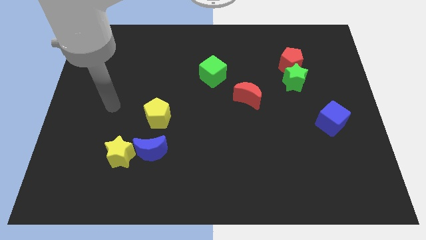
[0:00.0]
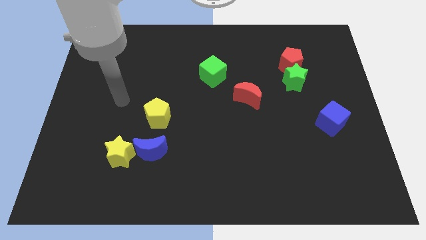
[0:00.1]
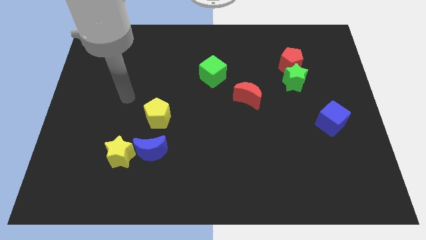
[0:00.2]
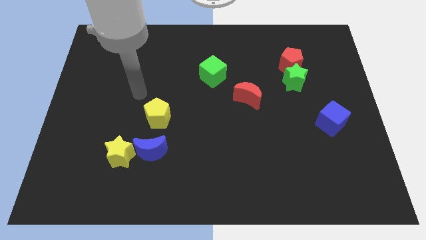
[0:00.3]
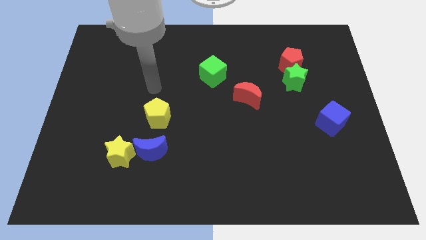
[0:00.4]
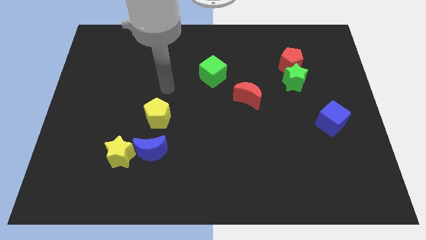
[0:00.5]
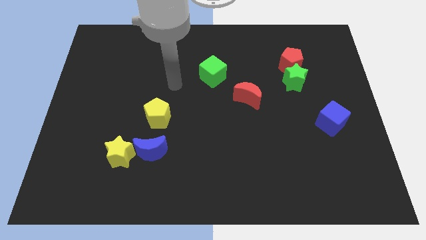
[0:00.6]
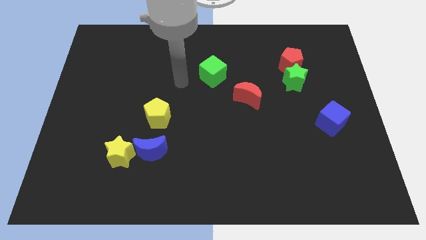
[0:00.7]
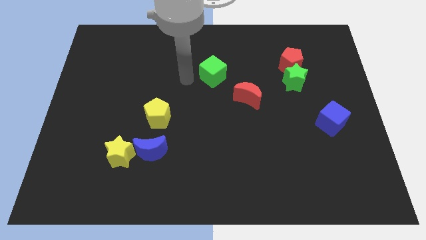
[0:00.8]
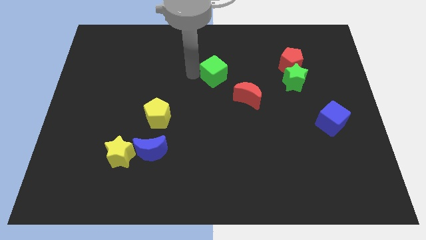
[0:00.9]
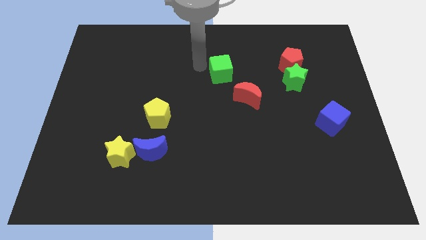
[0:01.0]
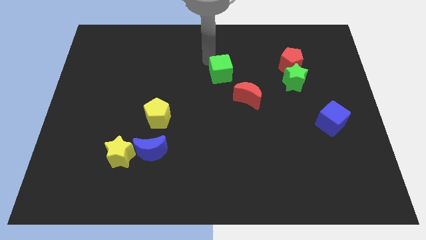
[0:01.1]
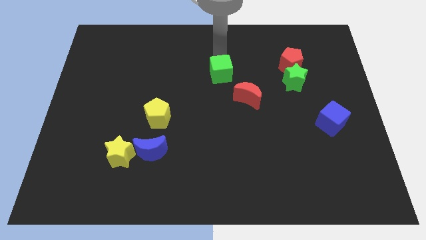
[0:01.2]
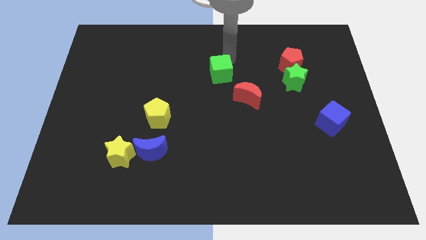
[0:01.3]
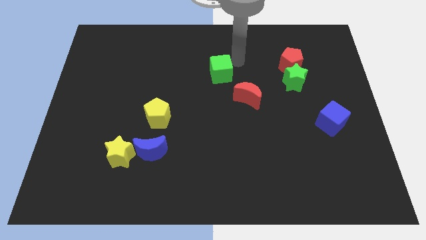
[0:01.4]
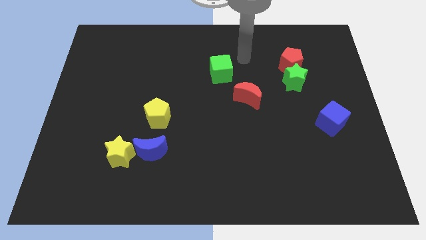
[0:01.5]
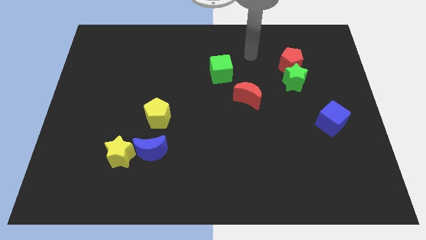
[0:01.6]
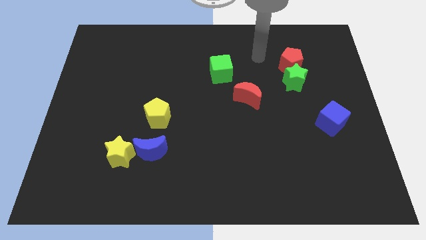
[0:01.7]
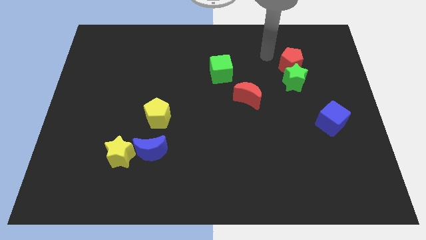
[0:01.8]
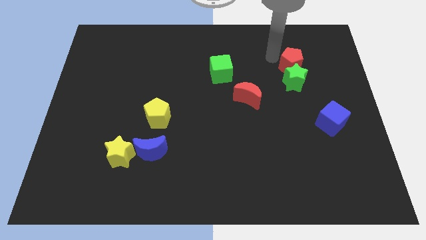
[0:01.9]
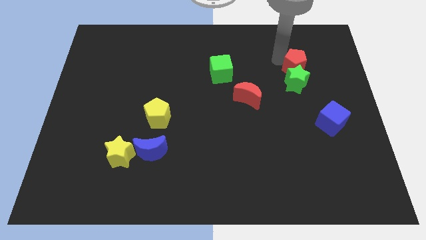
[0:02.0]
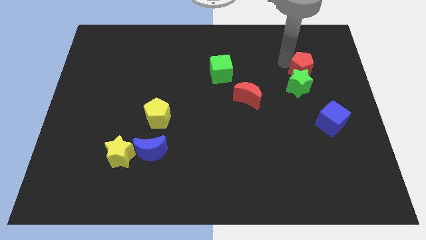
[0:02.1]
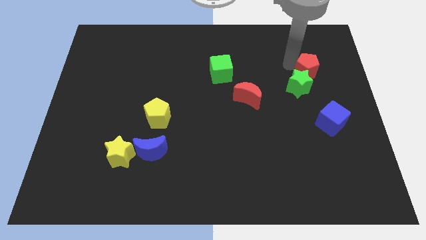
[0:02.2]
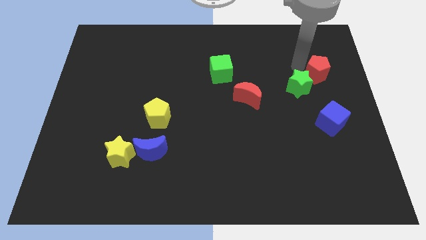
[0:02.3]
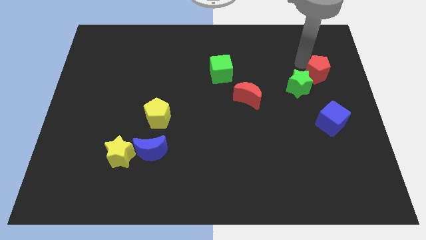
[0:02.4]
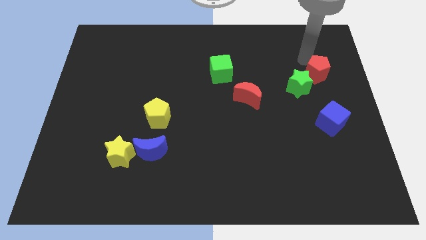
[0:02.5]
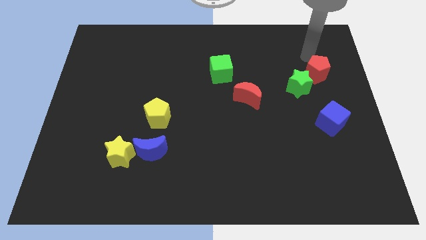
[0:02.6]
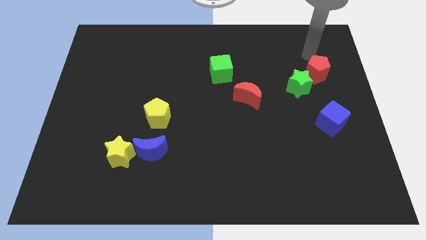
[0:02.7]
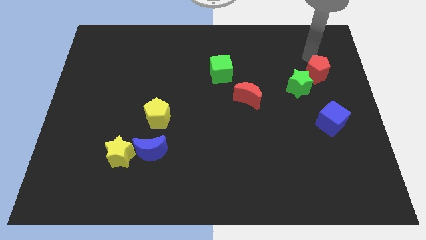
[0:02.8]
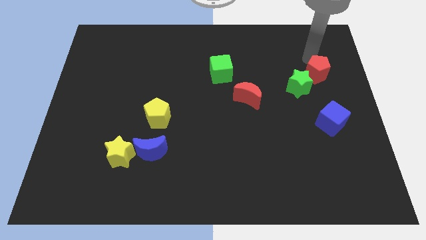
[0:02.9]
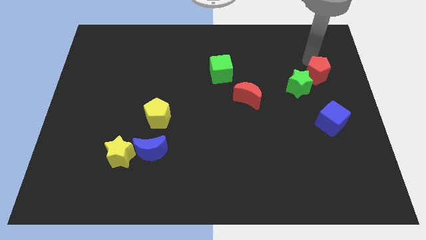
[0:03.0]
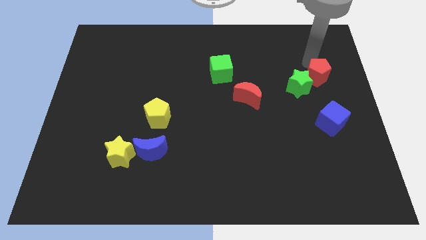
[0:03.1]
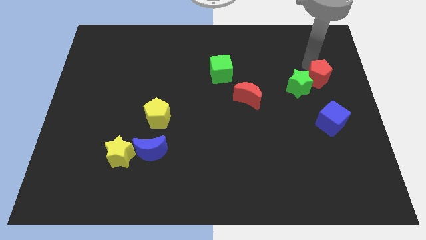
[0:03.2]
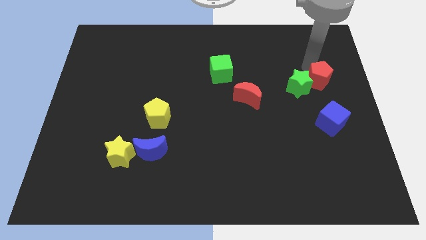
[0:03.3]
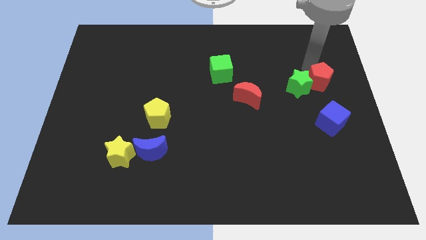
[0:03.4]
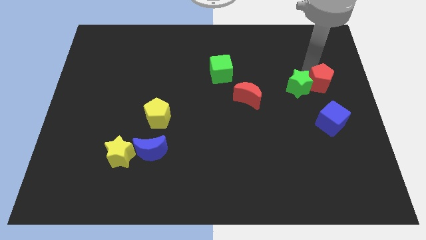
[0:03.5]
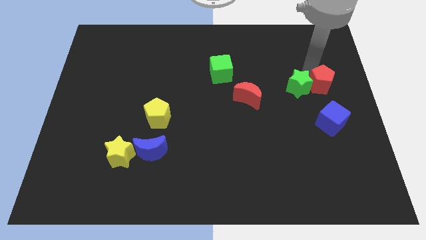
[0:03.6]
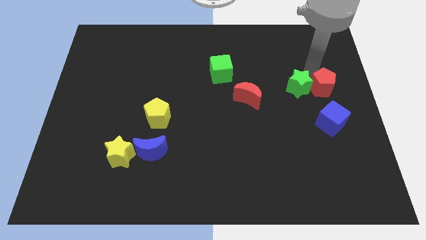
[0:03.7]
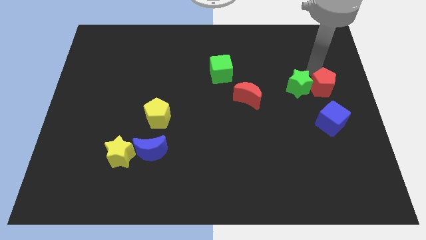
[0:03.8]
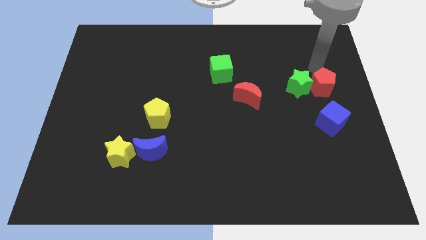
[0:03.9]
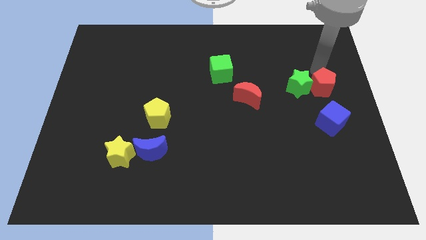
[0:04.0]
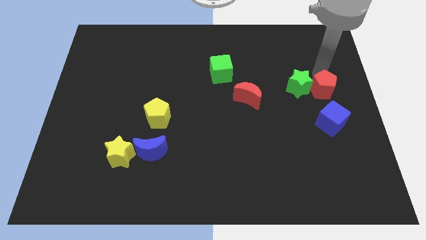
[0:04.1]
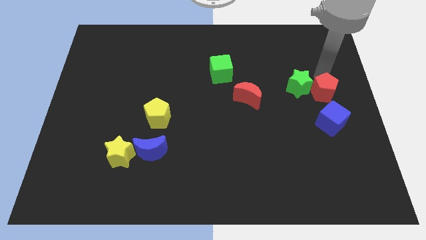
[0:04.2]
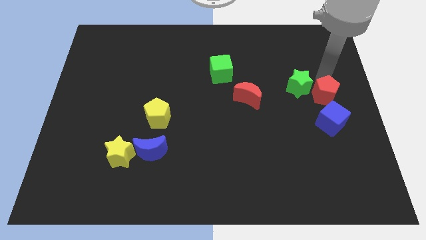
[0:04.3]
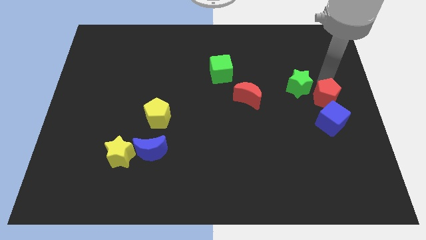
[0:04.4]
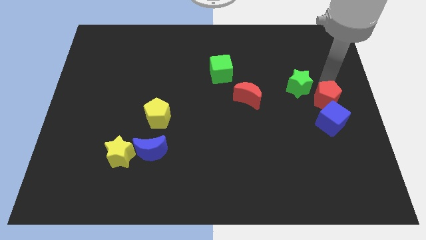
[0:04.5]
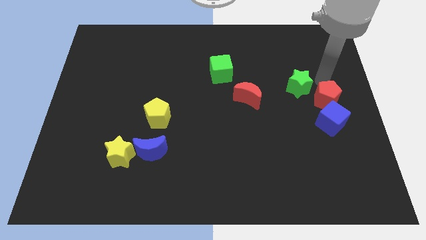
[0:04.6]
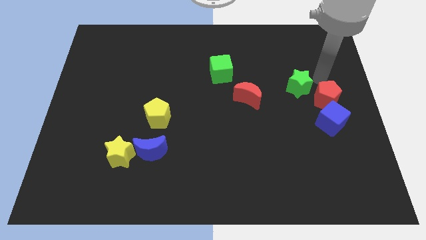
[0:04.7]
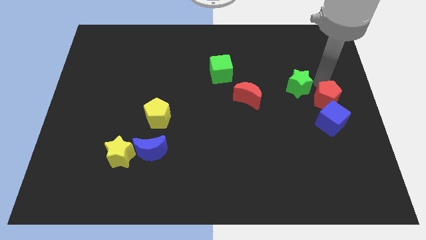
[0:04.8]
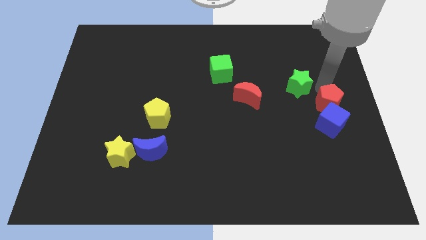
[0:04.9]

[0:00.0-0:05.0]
move the red pentagon to the blue cube

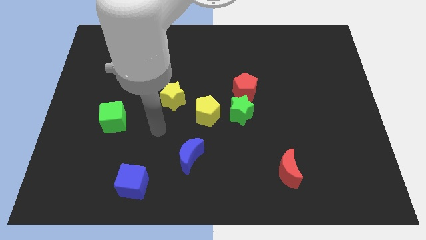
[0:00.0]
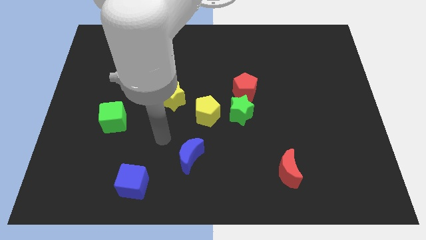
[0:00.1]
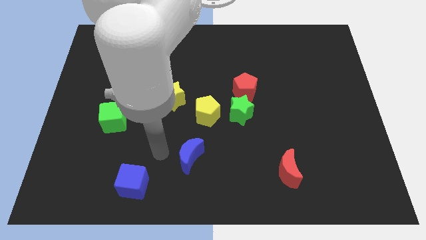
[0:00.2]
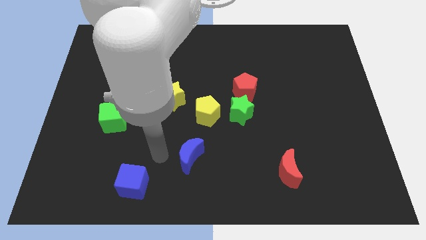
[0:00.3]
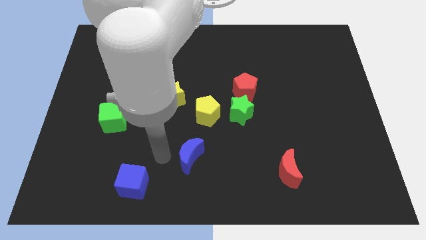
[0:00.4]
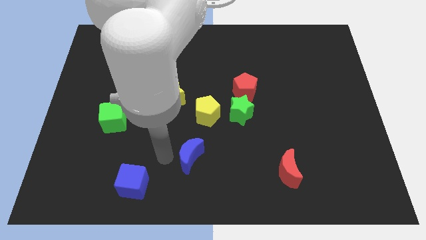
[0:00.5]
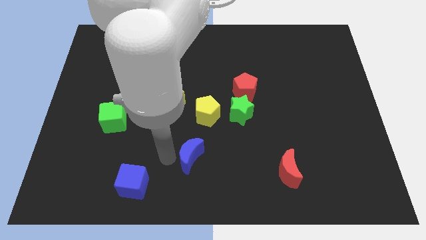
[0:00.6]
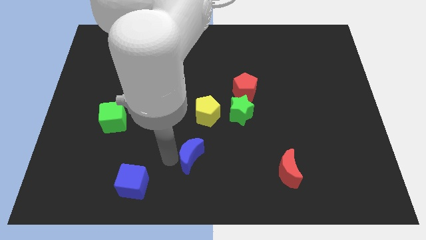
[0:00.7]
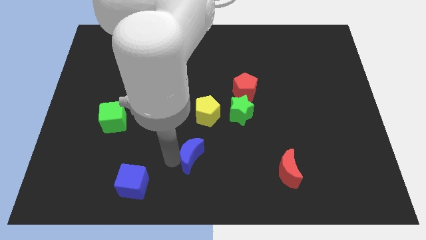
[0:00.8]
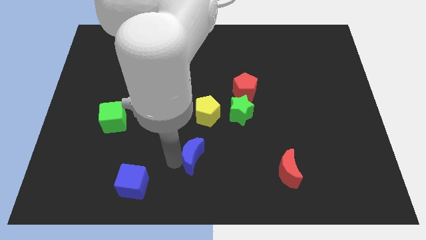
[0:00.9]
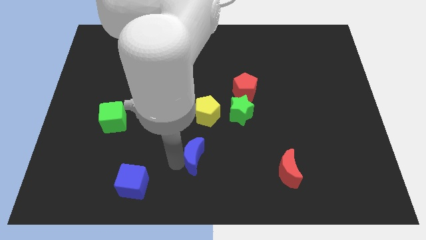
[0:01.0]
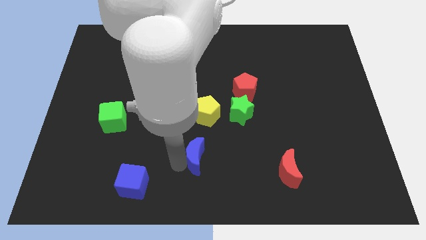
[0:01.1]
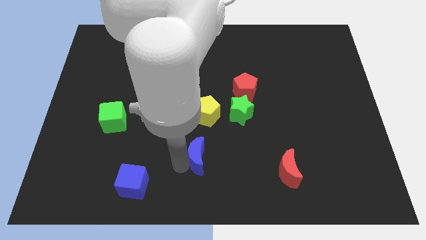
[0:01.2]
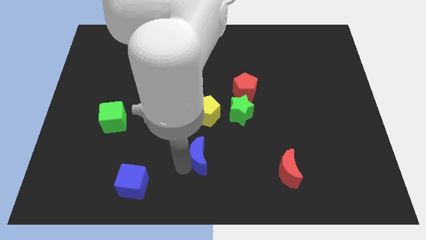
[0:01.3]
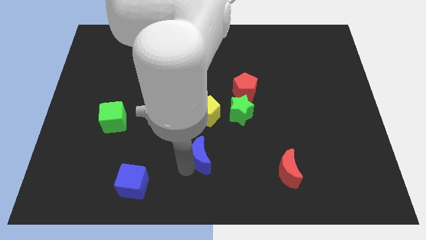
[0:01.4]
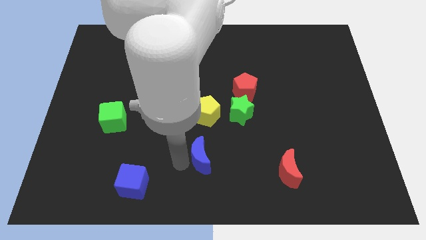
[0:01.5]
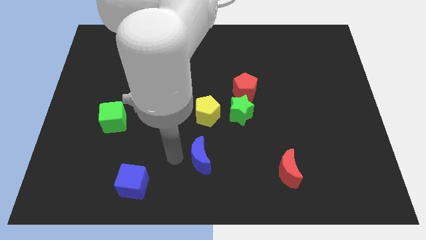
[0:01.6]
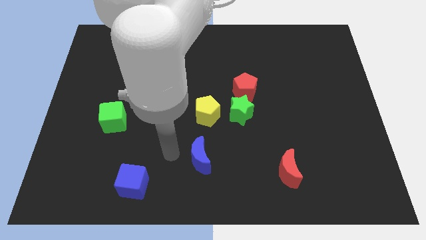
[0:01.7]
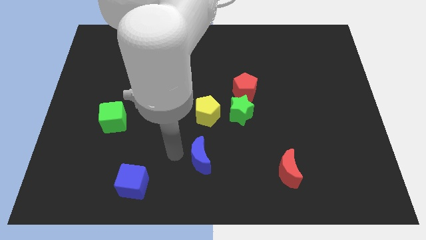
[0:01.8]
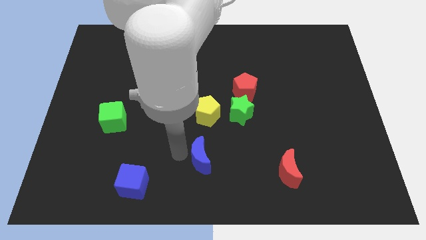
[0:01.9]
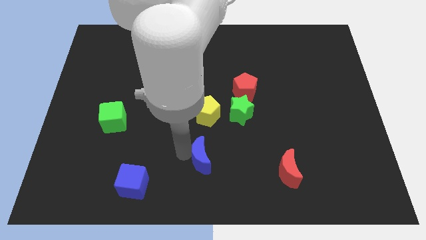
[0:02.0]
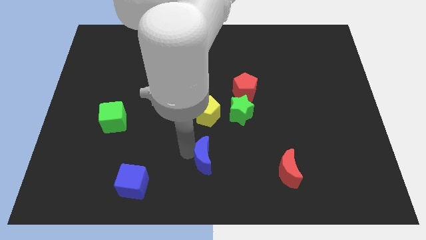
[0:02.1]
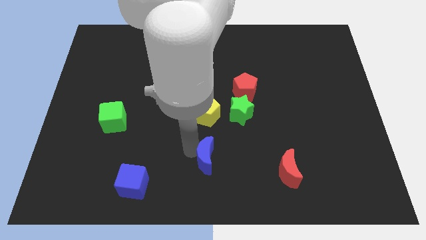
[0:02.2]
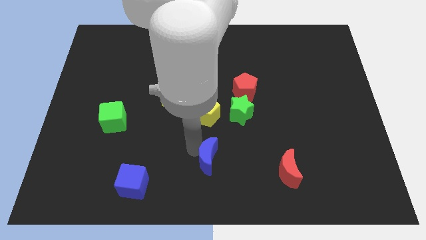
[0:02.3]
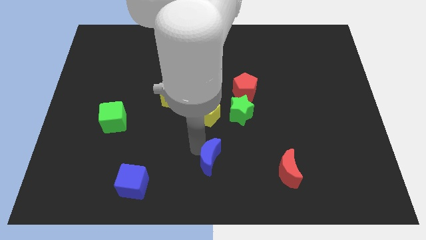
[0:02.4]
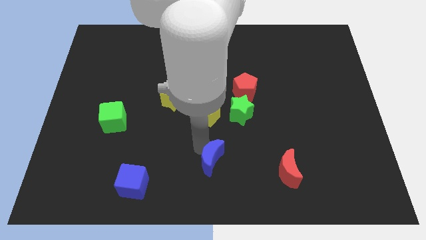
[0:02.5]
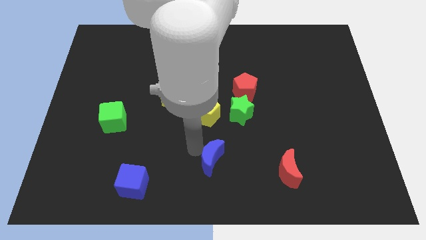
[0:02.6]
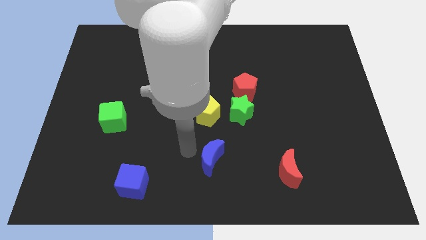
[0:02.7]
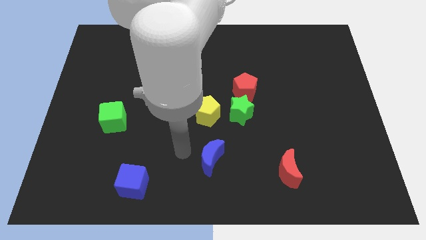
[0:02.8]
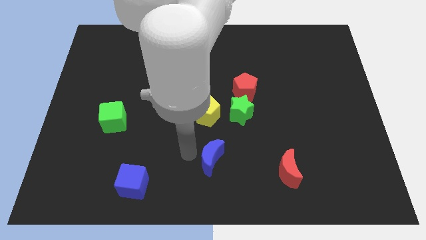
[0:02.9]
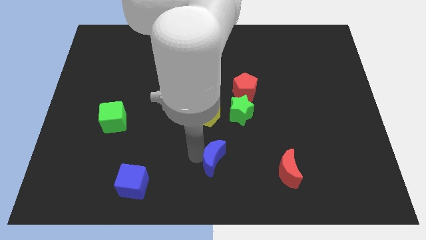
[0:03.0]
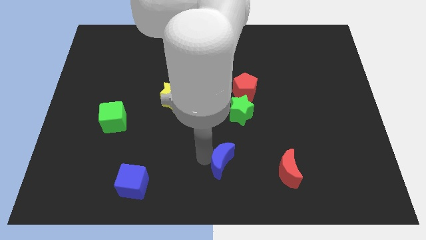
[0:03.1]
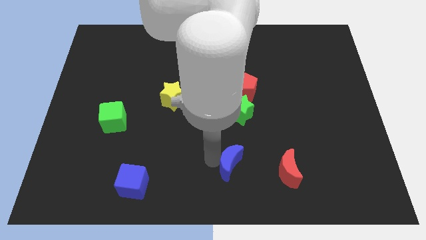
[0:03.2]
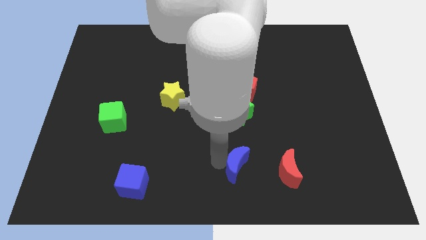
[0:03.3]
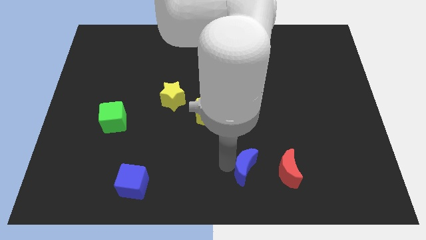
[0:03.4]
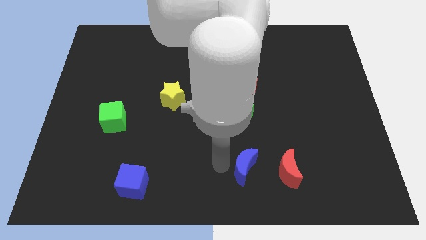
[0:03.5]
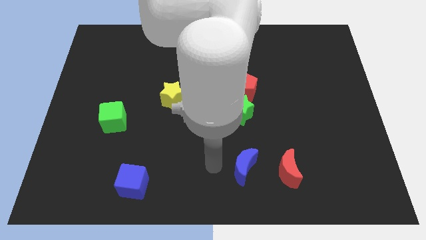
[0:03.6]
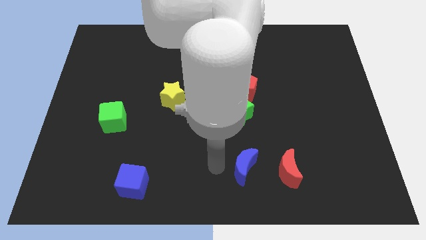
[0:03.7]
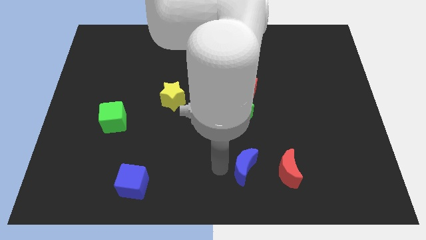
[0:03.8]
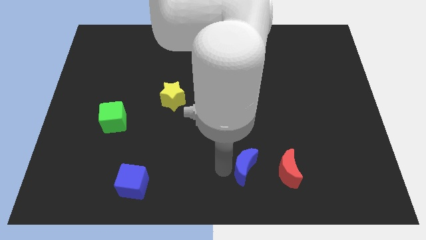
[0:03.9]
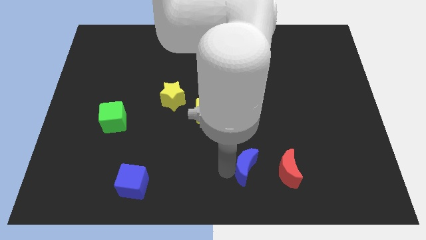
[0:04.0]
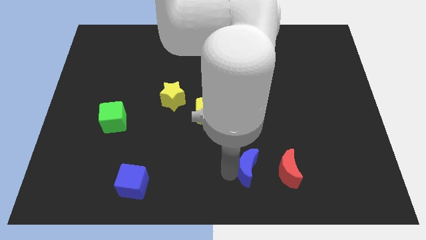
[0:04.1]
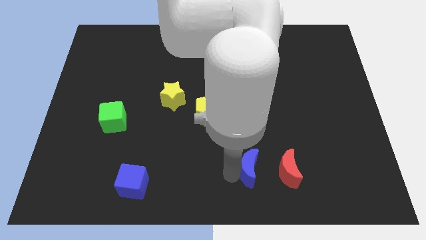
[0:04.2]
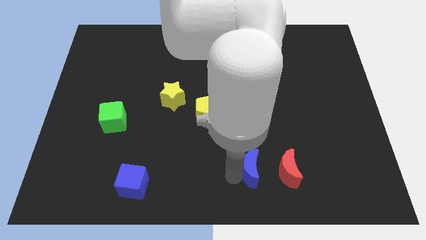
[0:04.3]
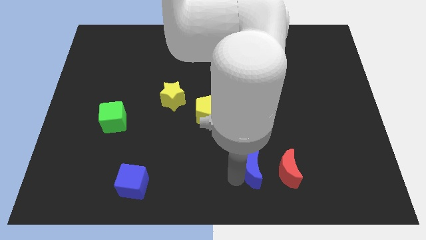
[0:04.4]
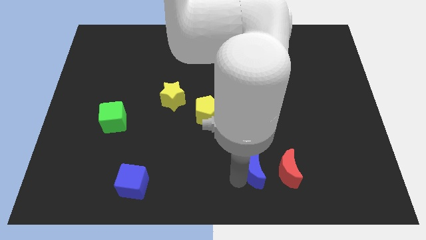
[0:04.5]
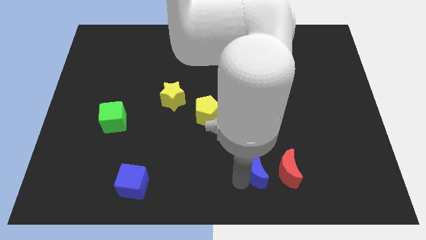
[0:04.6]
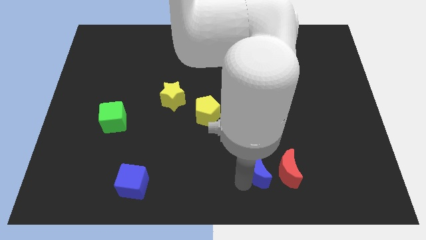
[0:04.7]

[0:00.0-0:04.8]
put the blue moon next to the red moon
